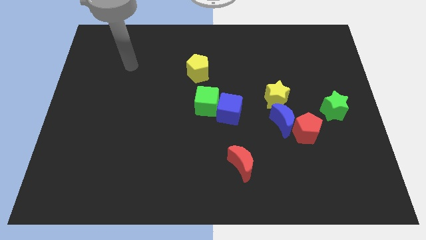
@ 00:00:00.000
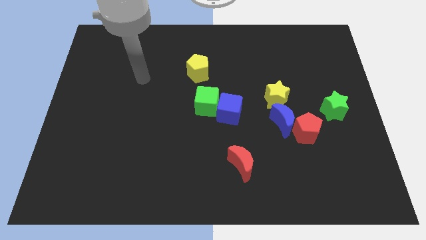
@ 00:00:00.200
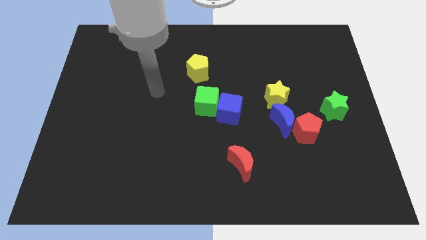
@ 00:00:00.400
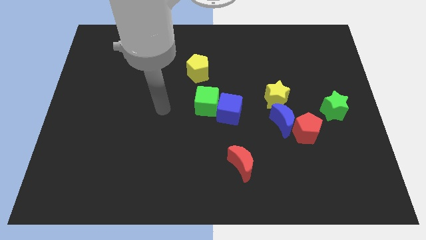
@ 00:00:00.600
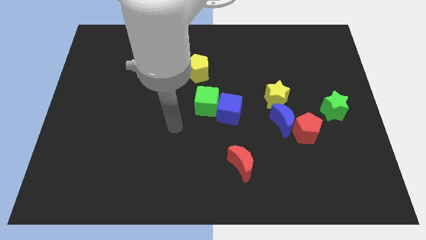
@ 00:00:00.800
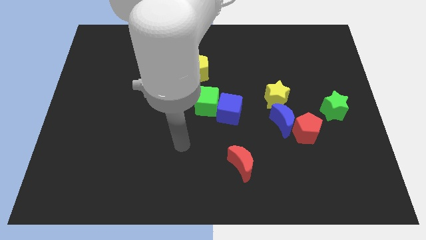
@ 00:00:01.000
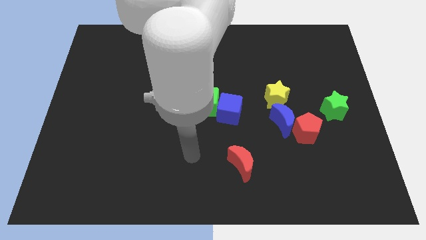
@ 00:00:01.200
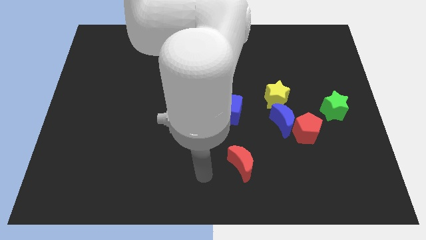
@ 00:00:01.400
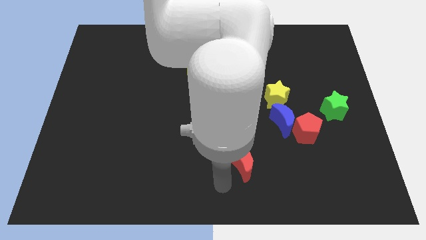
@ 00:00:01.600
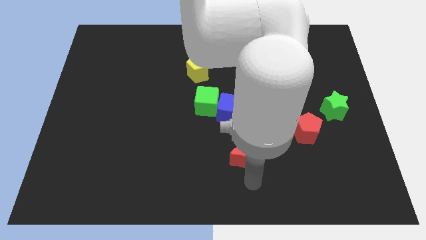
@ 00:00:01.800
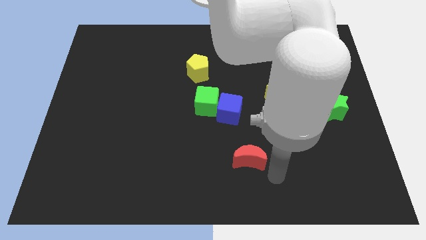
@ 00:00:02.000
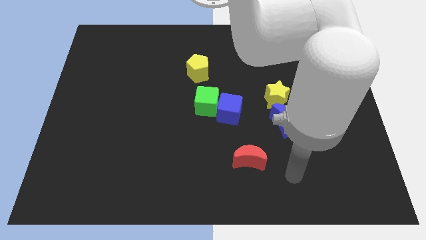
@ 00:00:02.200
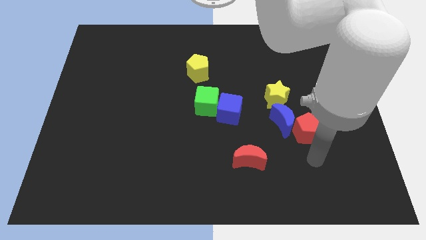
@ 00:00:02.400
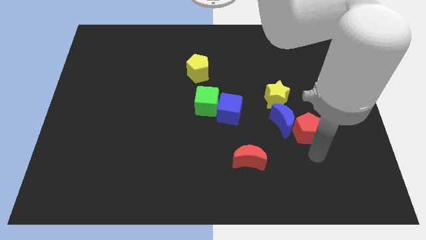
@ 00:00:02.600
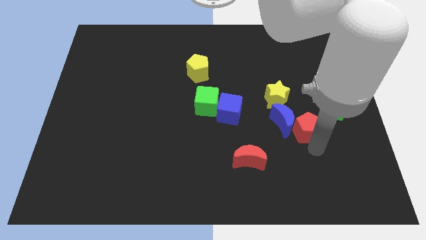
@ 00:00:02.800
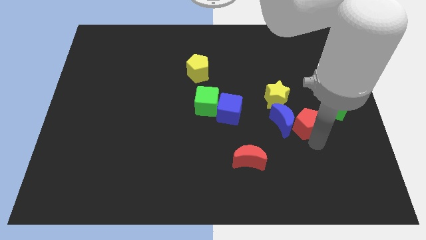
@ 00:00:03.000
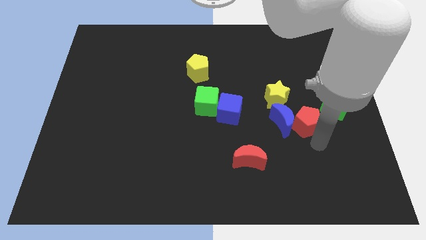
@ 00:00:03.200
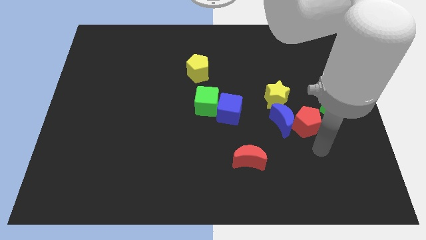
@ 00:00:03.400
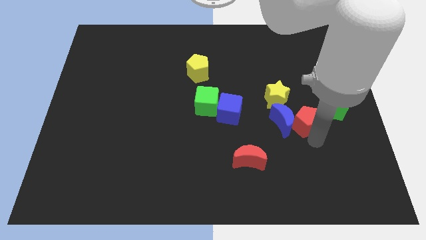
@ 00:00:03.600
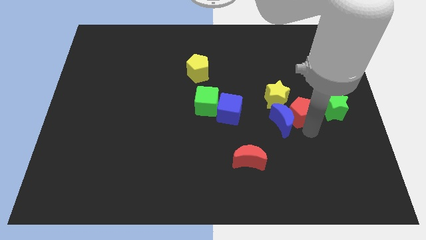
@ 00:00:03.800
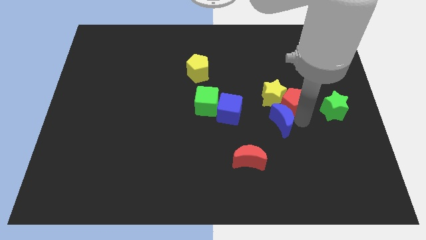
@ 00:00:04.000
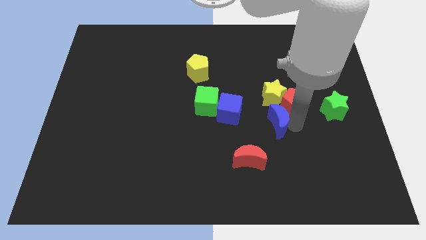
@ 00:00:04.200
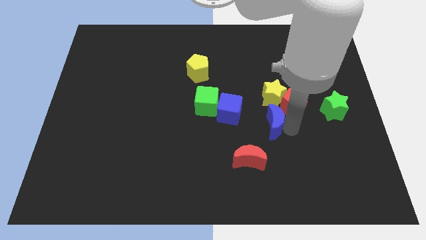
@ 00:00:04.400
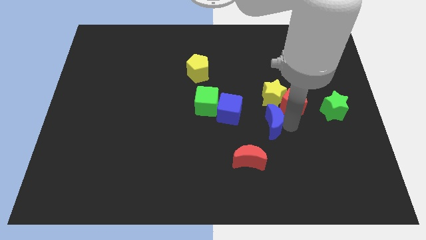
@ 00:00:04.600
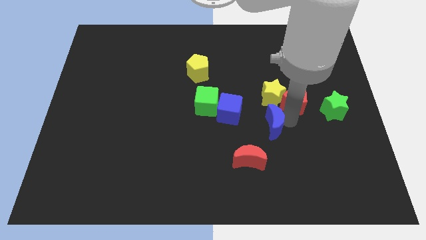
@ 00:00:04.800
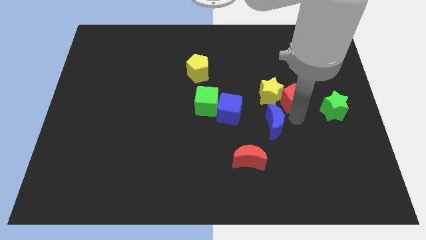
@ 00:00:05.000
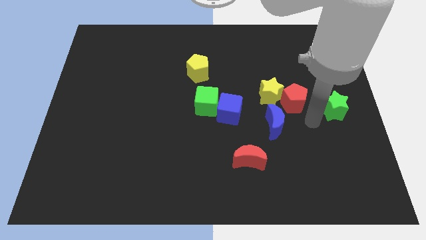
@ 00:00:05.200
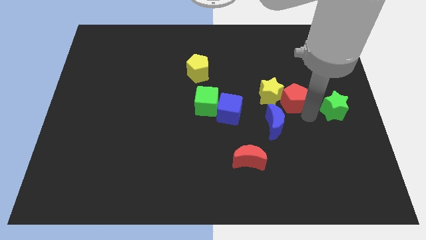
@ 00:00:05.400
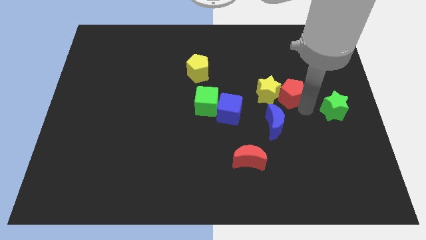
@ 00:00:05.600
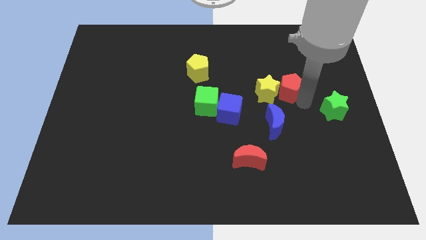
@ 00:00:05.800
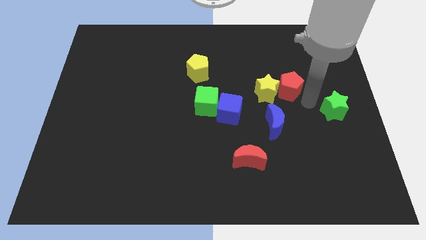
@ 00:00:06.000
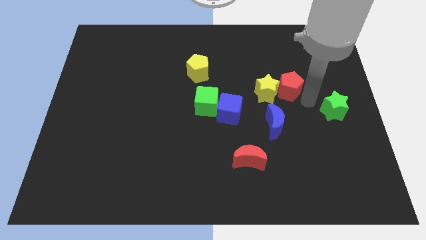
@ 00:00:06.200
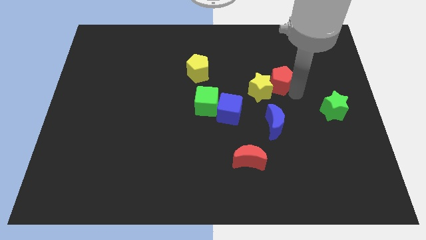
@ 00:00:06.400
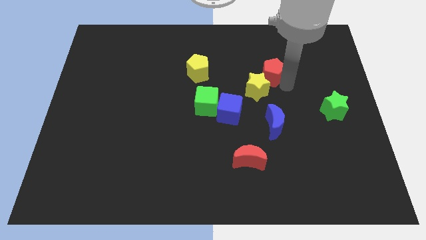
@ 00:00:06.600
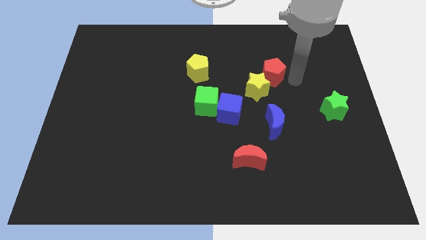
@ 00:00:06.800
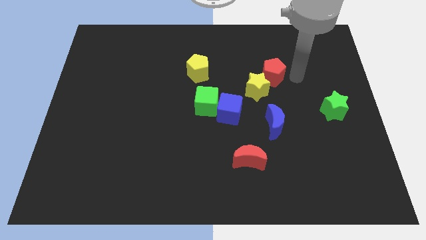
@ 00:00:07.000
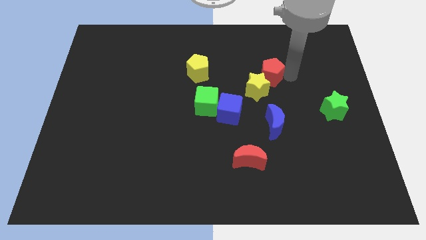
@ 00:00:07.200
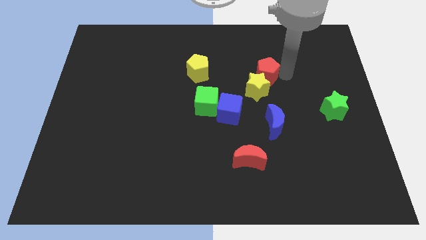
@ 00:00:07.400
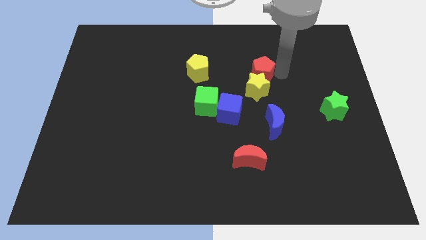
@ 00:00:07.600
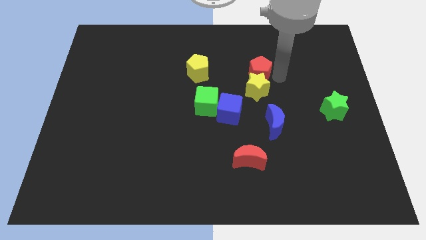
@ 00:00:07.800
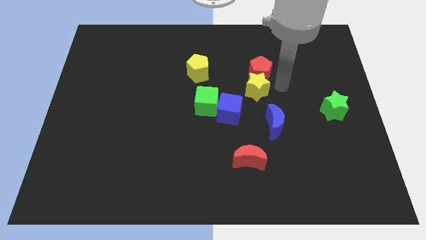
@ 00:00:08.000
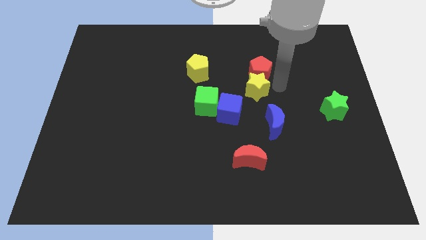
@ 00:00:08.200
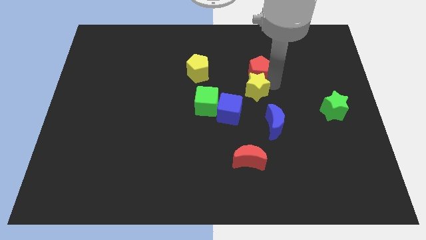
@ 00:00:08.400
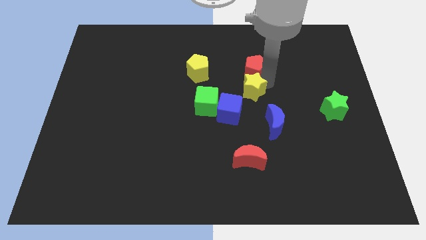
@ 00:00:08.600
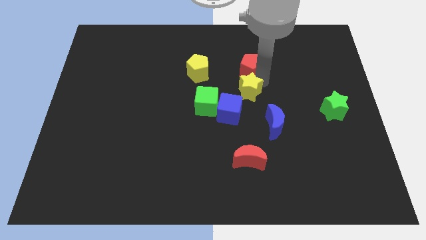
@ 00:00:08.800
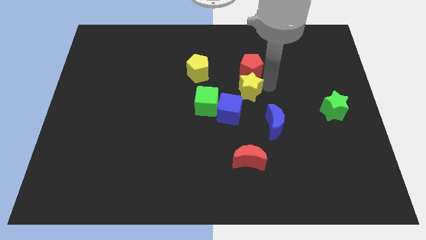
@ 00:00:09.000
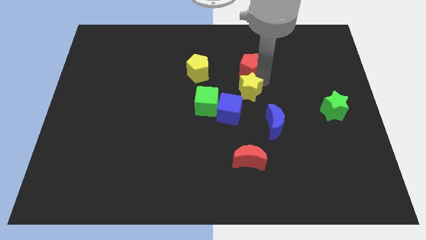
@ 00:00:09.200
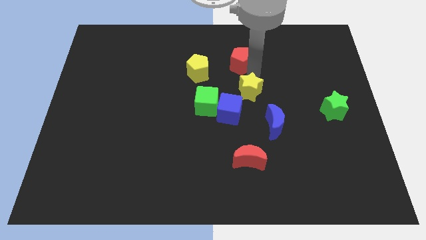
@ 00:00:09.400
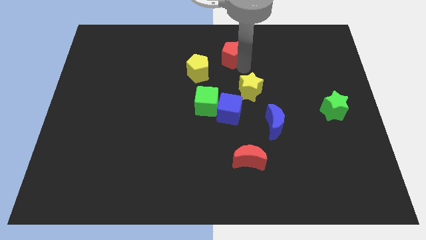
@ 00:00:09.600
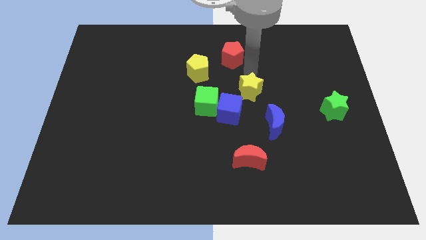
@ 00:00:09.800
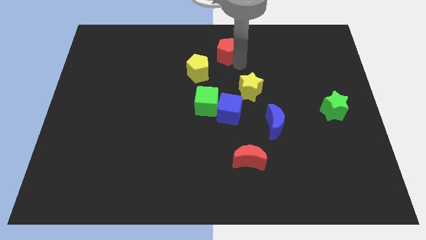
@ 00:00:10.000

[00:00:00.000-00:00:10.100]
slide the red pentagon to the towards your base
